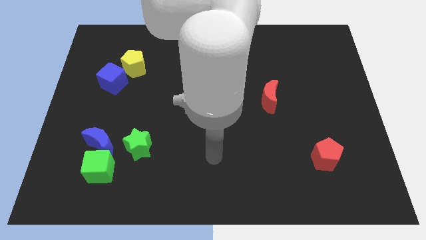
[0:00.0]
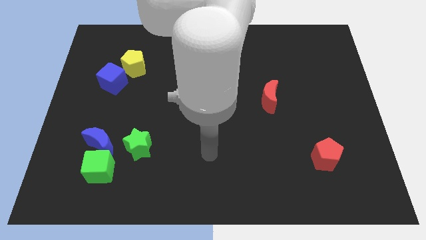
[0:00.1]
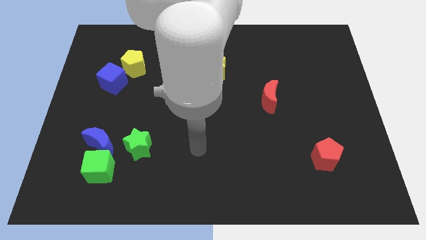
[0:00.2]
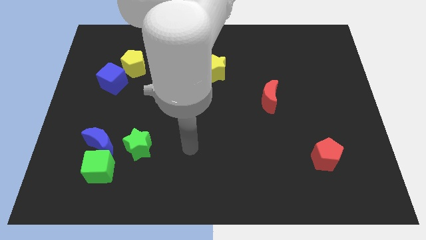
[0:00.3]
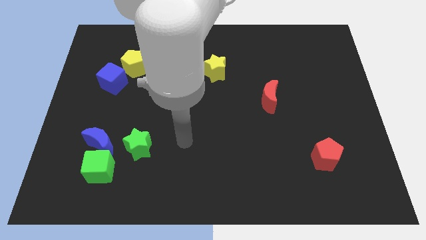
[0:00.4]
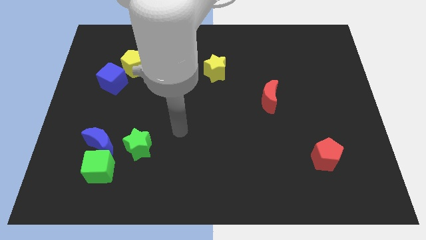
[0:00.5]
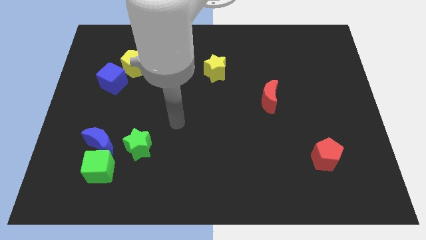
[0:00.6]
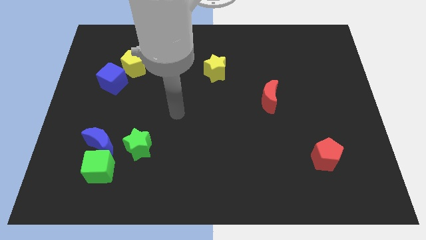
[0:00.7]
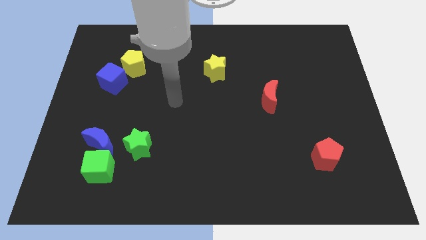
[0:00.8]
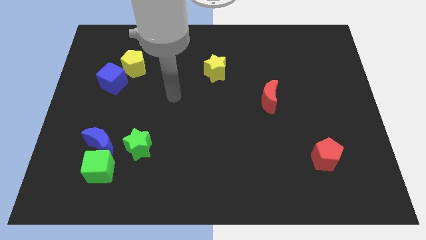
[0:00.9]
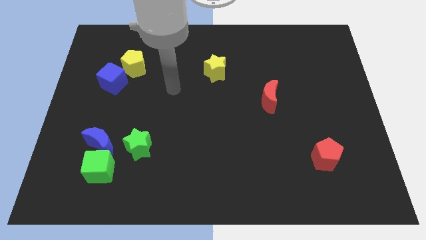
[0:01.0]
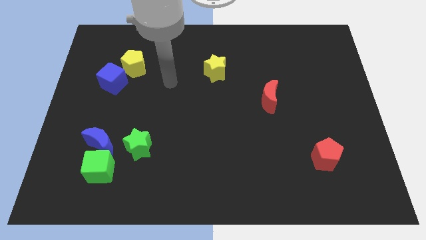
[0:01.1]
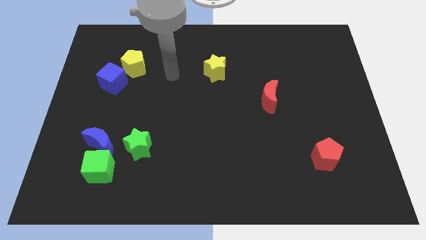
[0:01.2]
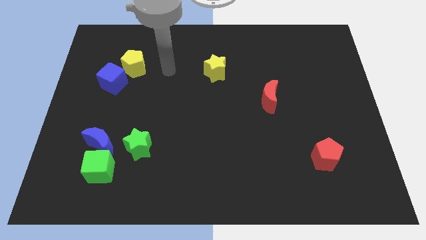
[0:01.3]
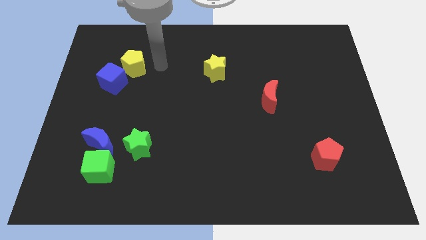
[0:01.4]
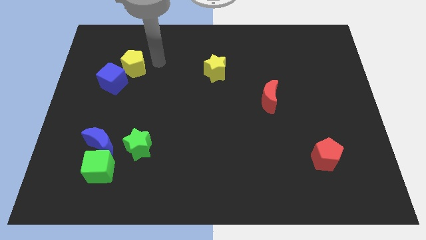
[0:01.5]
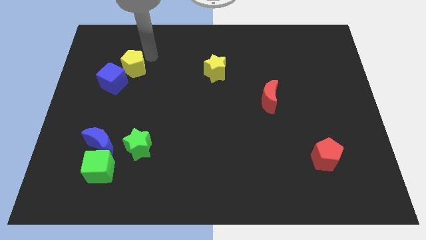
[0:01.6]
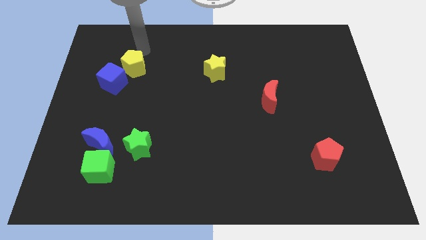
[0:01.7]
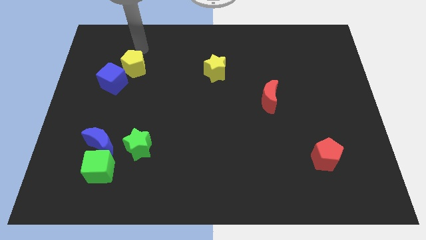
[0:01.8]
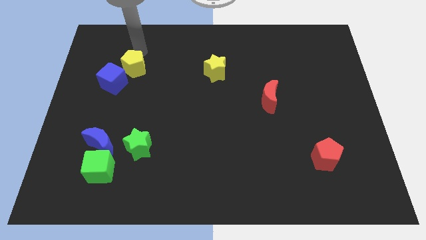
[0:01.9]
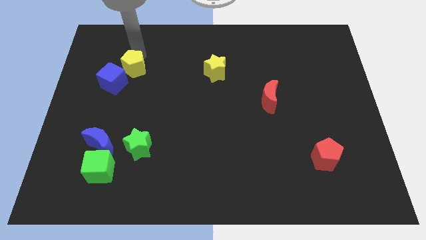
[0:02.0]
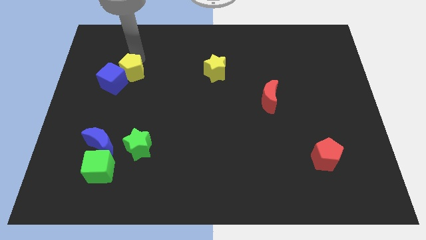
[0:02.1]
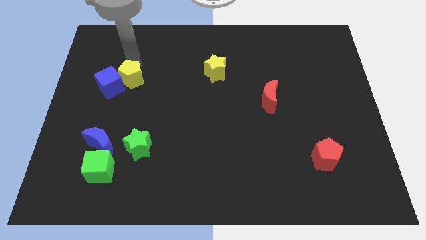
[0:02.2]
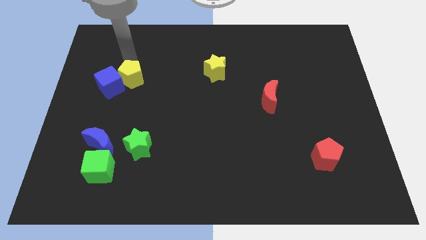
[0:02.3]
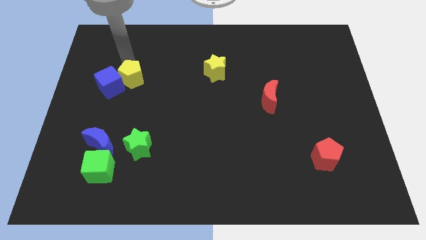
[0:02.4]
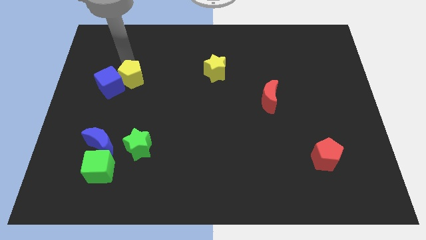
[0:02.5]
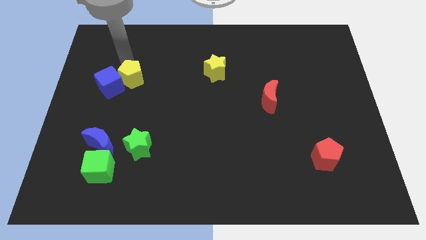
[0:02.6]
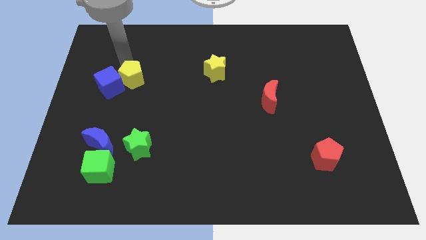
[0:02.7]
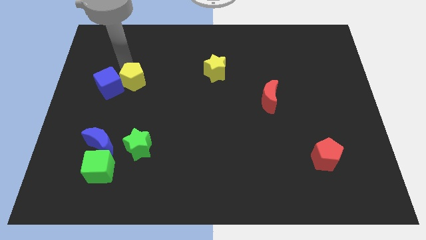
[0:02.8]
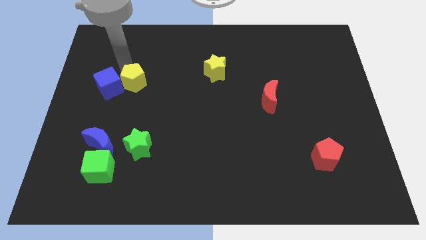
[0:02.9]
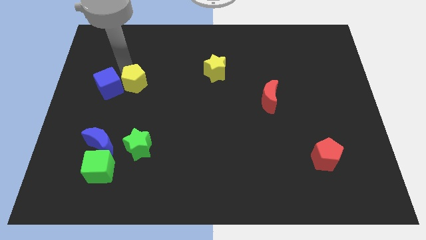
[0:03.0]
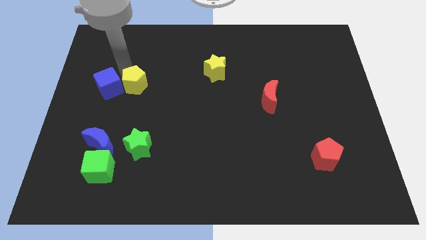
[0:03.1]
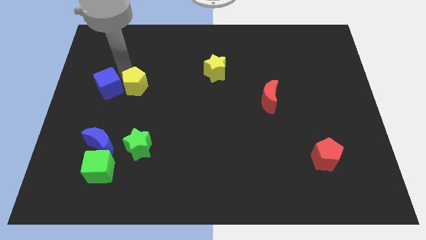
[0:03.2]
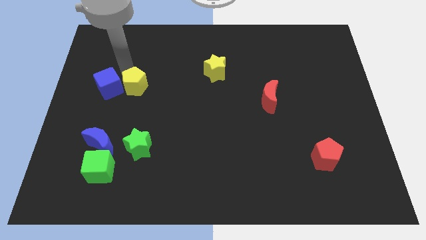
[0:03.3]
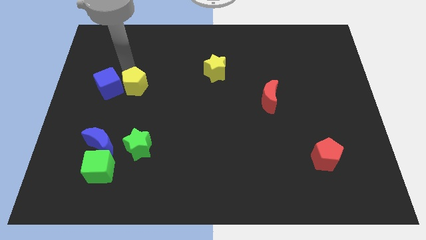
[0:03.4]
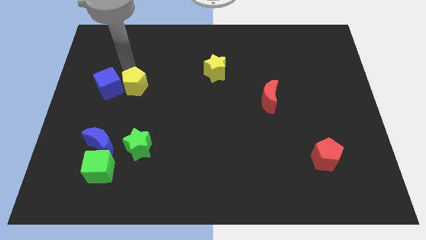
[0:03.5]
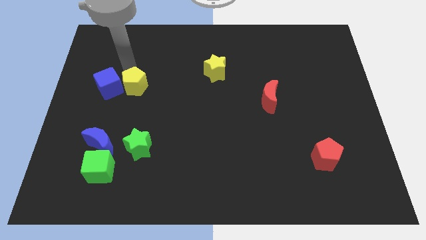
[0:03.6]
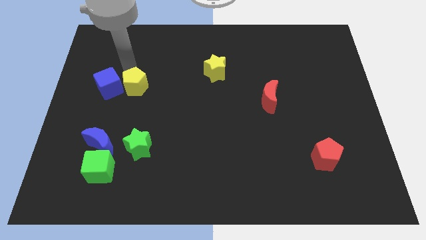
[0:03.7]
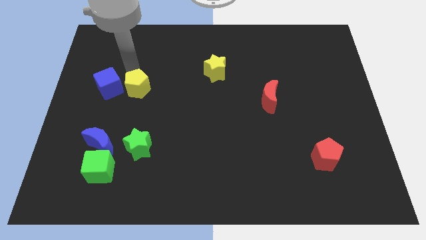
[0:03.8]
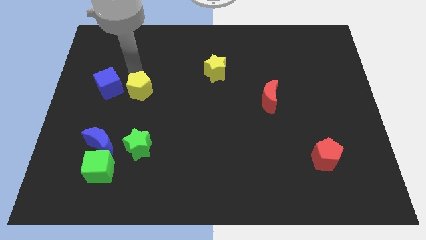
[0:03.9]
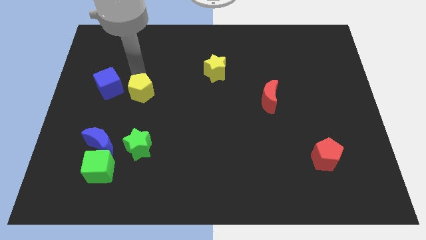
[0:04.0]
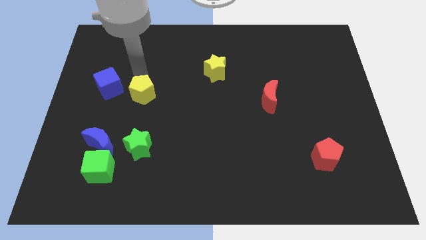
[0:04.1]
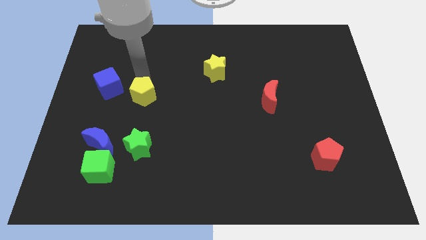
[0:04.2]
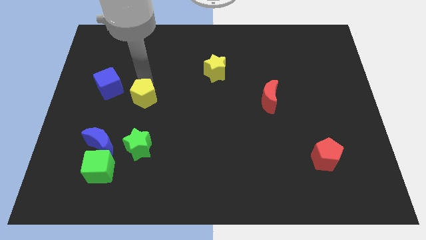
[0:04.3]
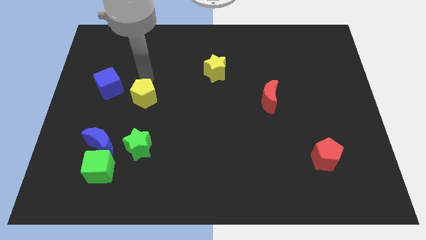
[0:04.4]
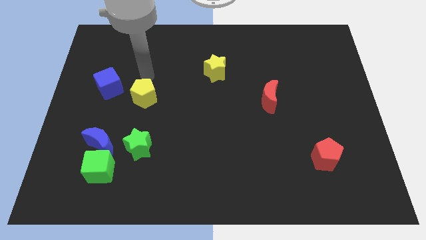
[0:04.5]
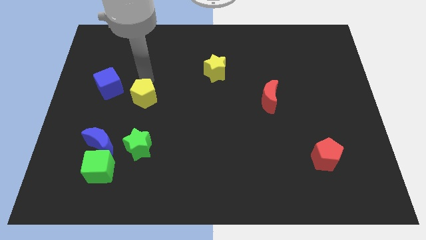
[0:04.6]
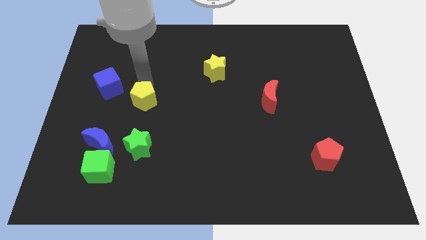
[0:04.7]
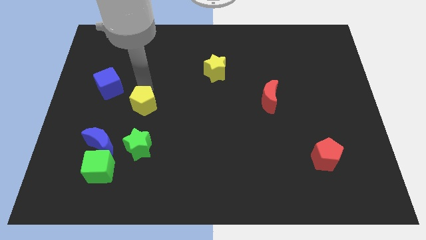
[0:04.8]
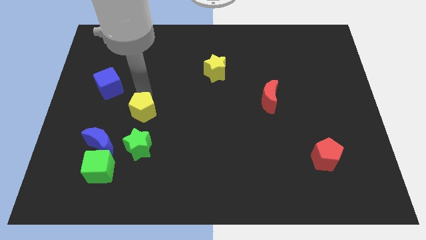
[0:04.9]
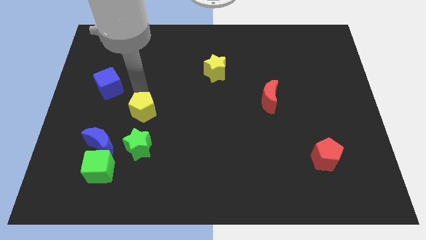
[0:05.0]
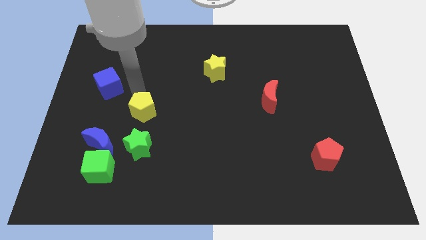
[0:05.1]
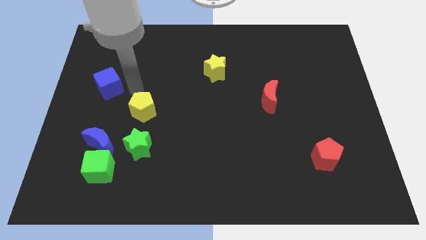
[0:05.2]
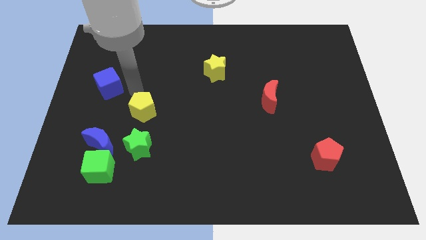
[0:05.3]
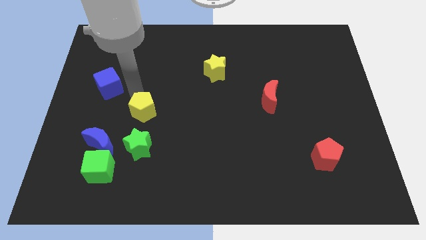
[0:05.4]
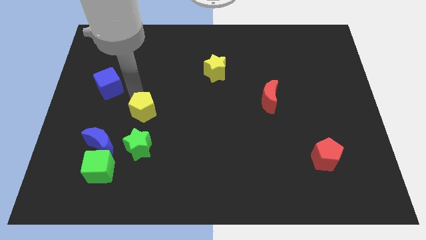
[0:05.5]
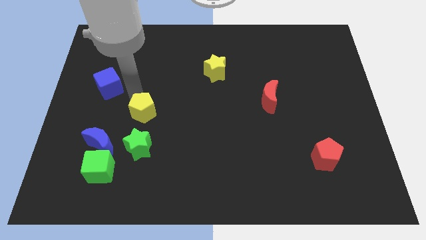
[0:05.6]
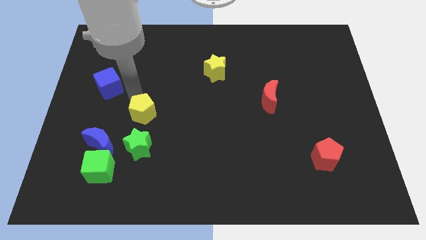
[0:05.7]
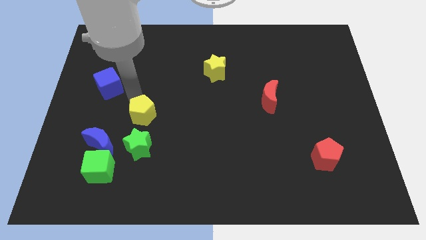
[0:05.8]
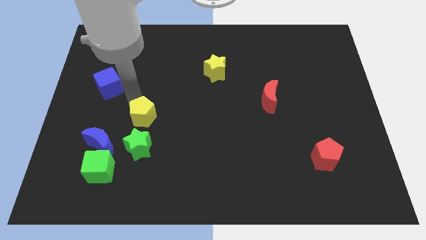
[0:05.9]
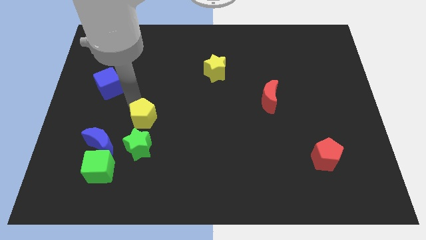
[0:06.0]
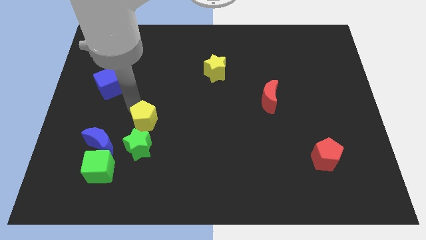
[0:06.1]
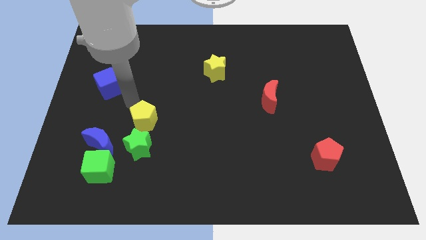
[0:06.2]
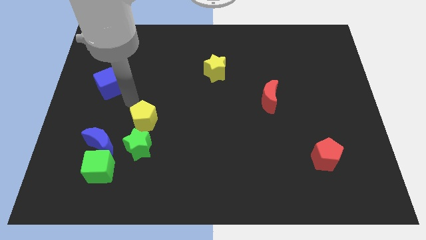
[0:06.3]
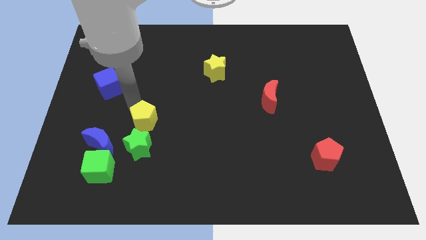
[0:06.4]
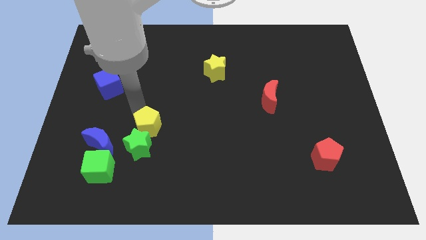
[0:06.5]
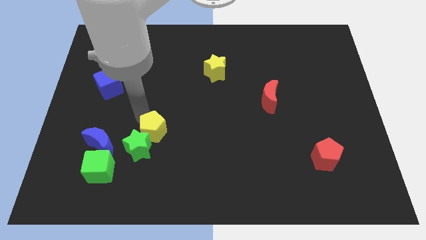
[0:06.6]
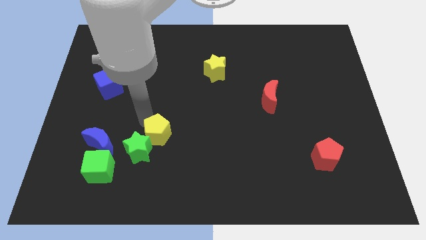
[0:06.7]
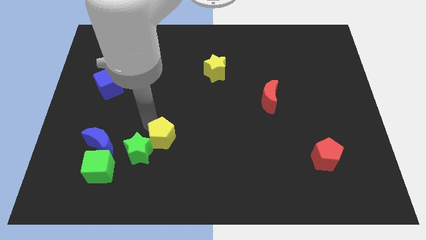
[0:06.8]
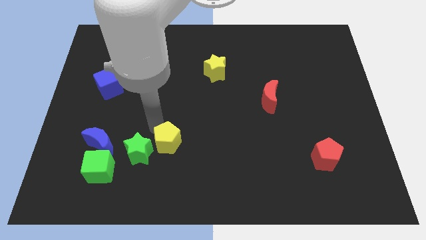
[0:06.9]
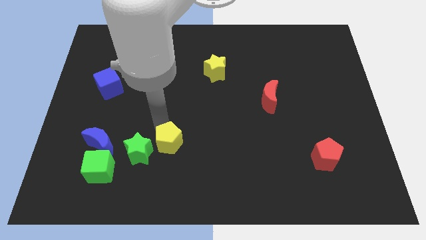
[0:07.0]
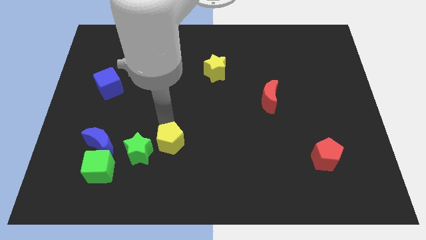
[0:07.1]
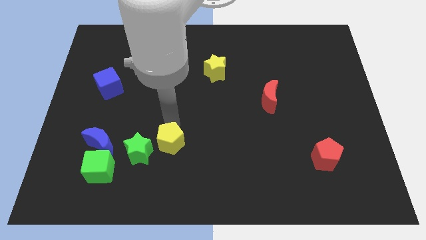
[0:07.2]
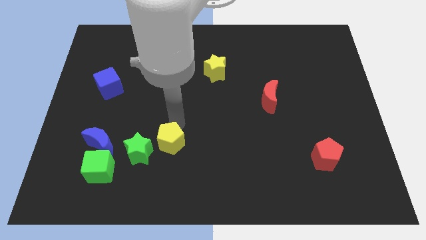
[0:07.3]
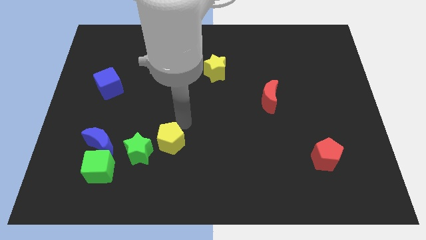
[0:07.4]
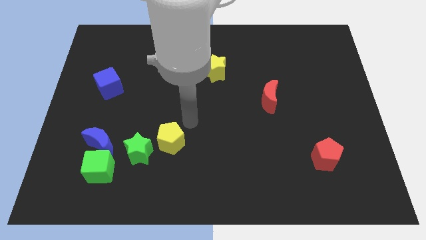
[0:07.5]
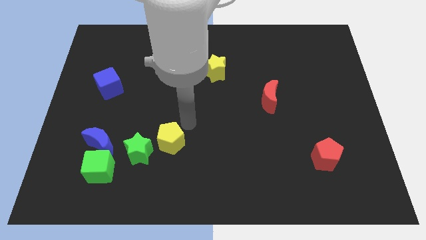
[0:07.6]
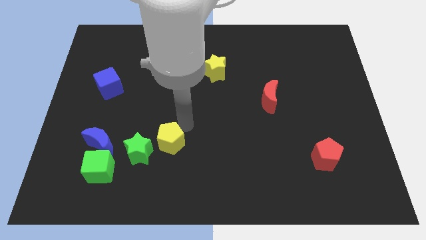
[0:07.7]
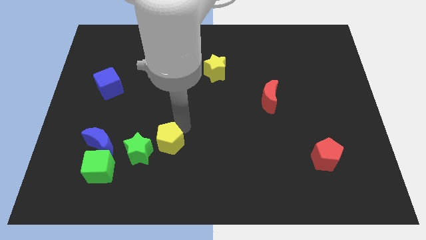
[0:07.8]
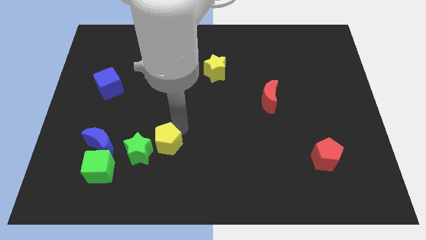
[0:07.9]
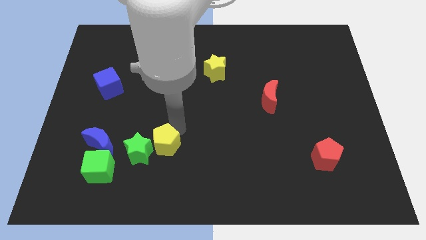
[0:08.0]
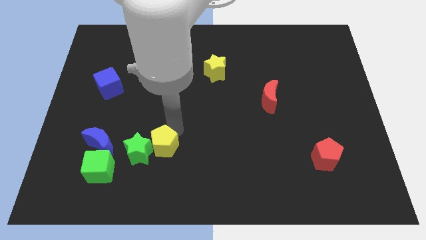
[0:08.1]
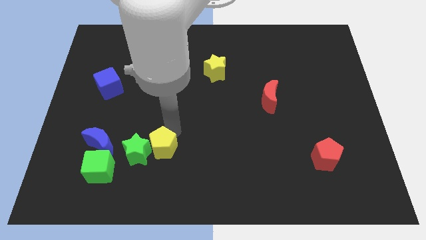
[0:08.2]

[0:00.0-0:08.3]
slide the yellow pentagon downwards
